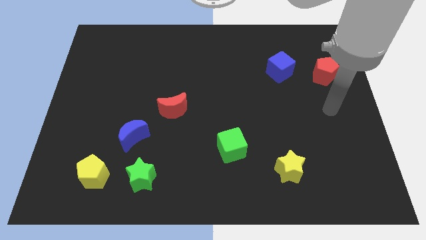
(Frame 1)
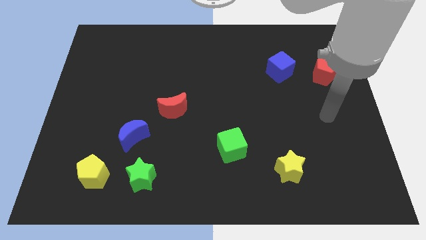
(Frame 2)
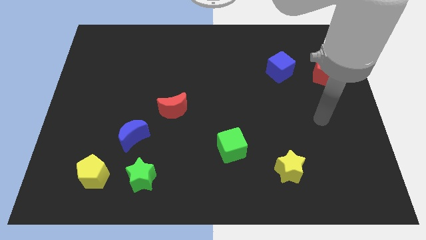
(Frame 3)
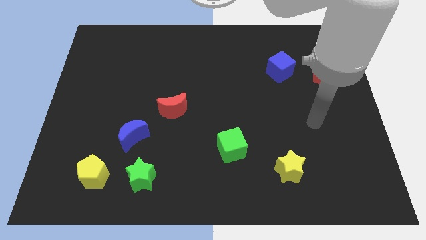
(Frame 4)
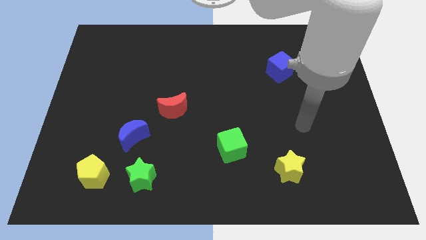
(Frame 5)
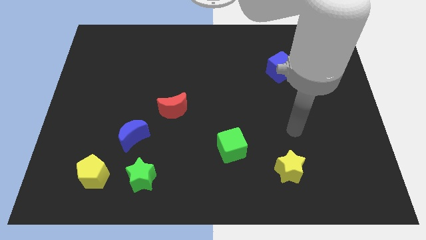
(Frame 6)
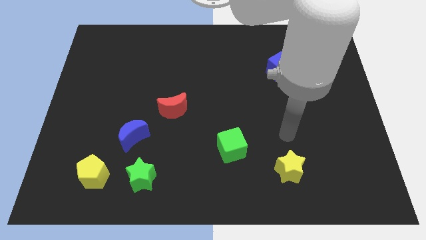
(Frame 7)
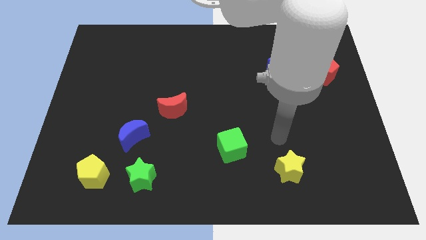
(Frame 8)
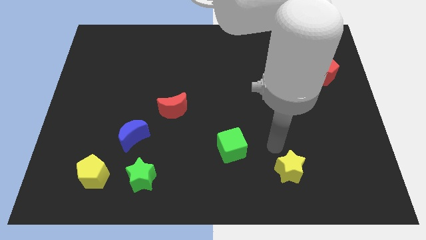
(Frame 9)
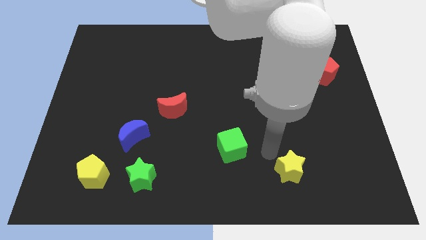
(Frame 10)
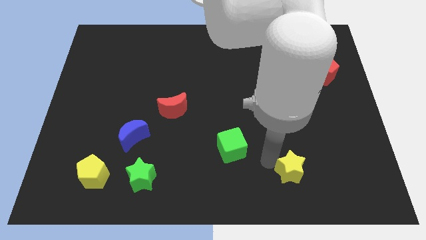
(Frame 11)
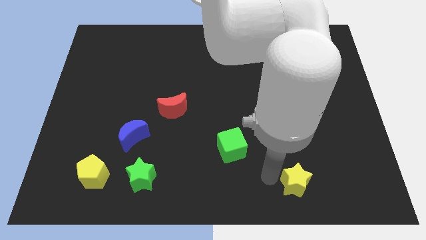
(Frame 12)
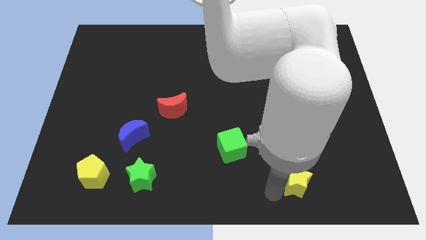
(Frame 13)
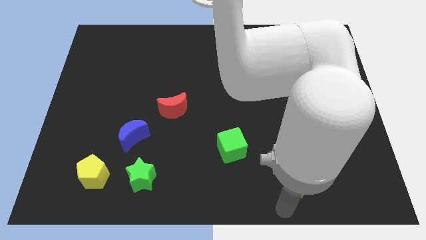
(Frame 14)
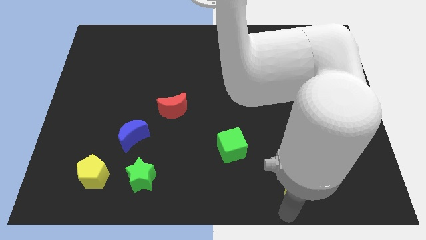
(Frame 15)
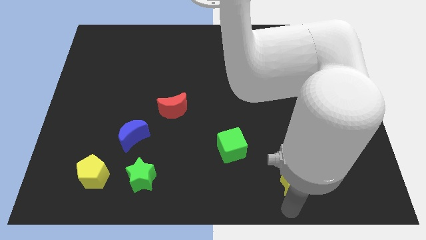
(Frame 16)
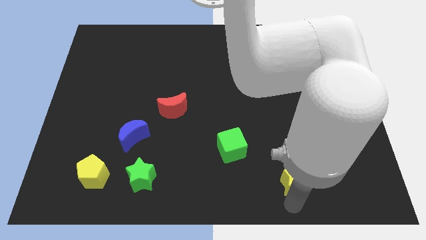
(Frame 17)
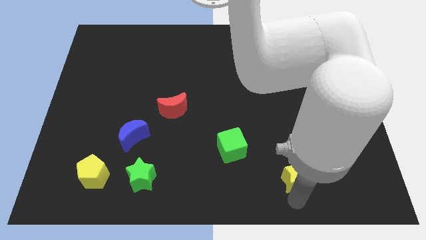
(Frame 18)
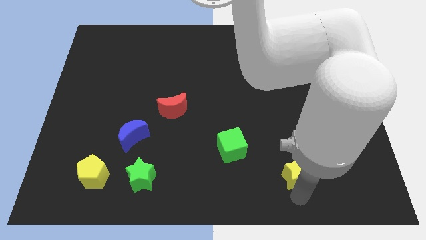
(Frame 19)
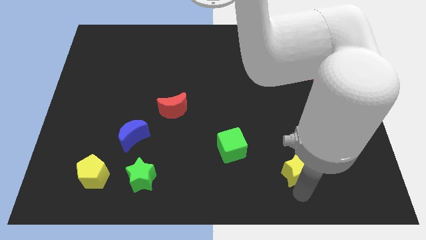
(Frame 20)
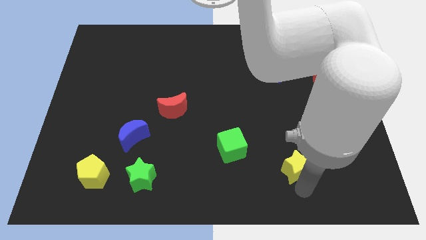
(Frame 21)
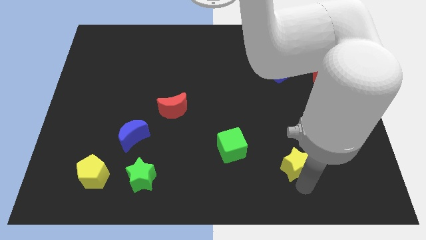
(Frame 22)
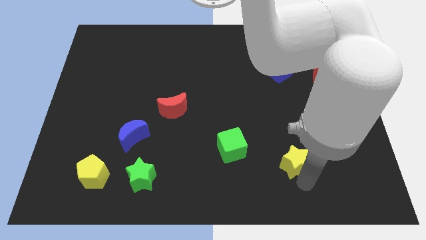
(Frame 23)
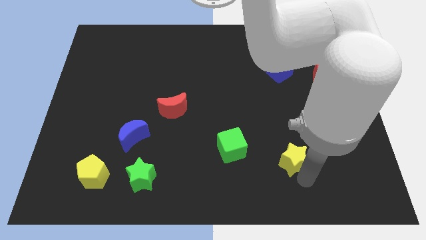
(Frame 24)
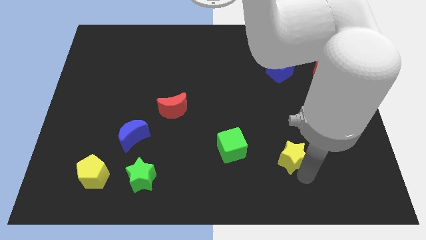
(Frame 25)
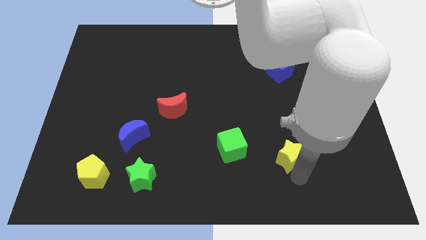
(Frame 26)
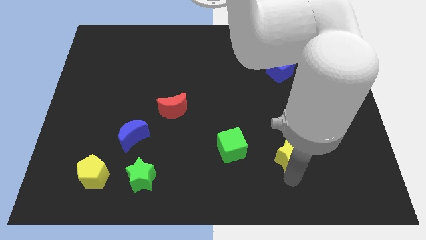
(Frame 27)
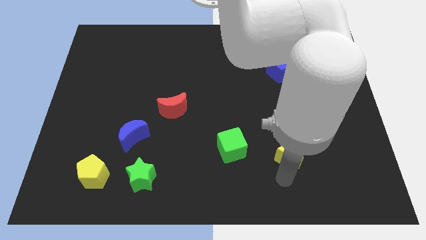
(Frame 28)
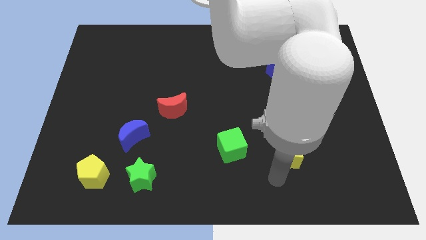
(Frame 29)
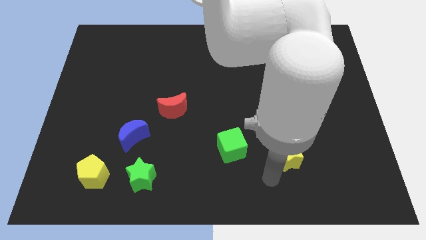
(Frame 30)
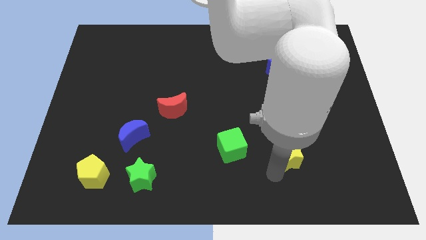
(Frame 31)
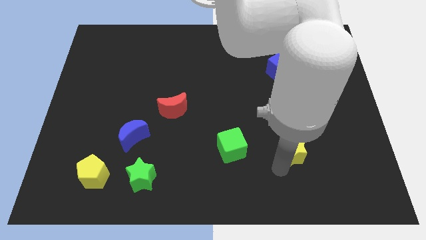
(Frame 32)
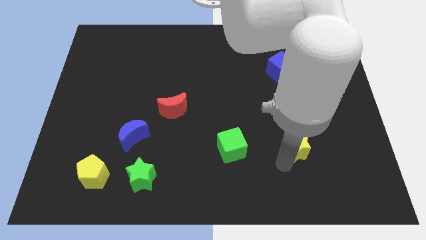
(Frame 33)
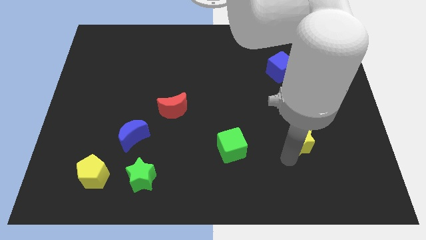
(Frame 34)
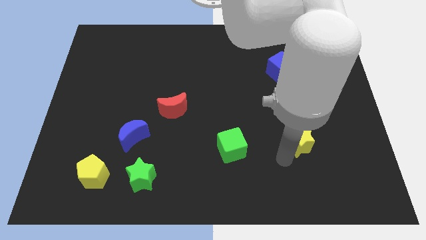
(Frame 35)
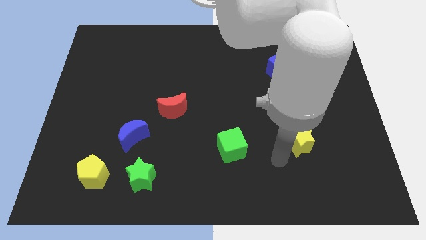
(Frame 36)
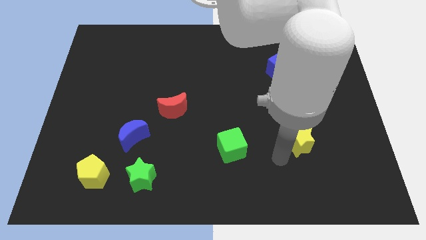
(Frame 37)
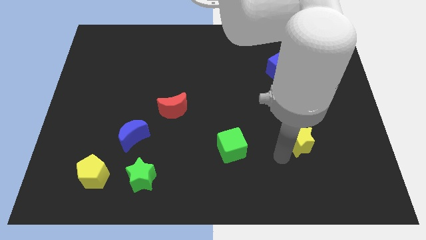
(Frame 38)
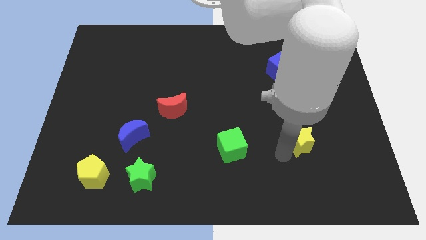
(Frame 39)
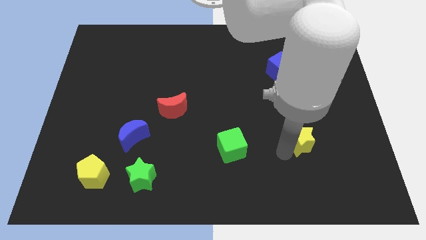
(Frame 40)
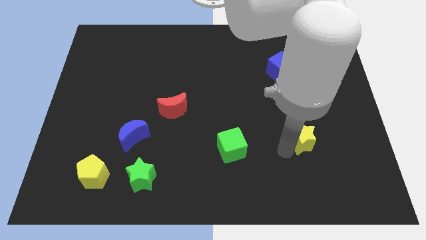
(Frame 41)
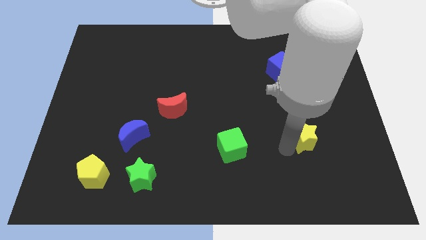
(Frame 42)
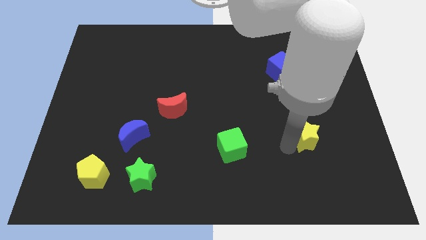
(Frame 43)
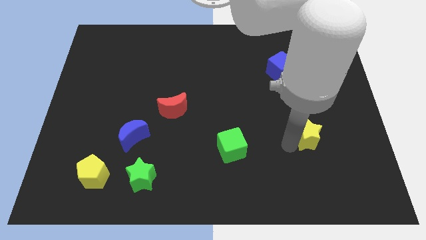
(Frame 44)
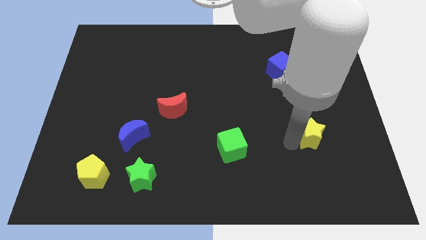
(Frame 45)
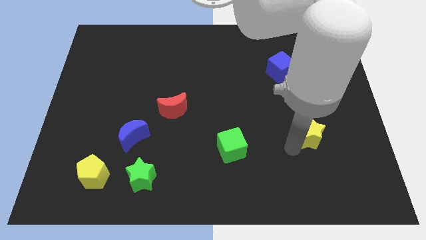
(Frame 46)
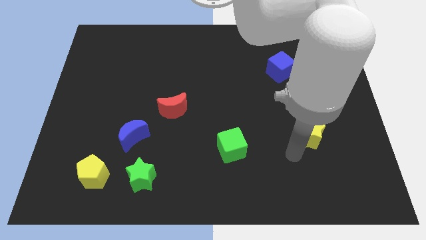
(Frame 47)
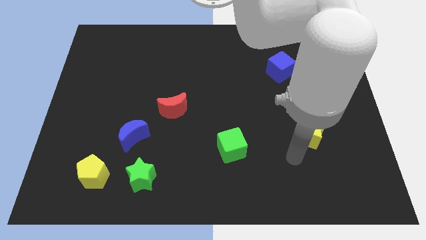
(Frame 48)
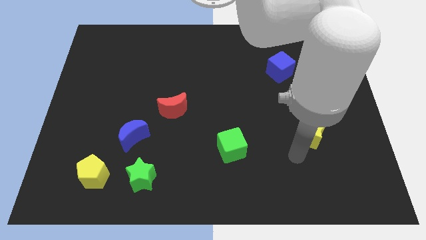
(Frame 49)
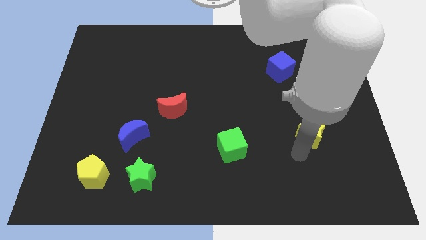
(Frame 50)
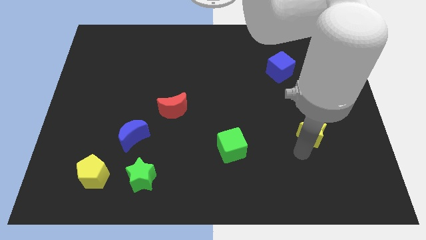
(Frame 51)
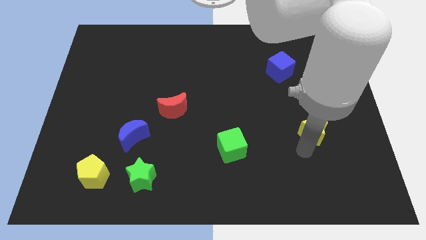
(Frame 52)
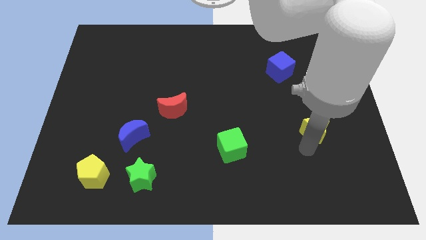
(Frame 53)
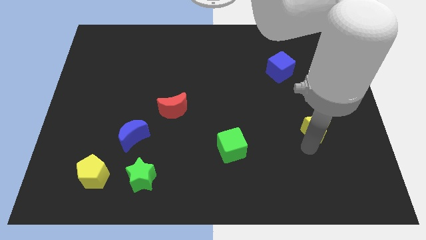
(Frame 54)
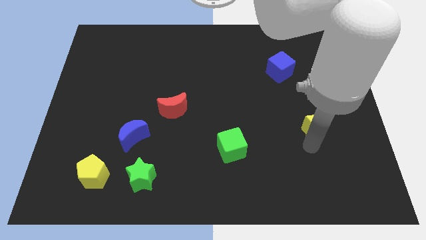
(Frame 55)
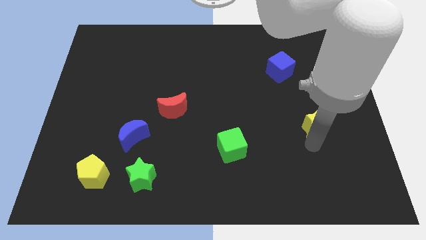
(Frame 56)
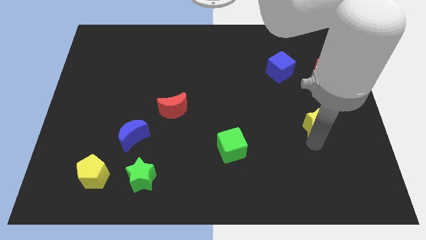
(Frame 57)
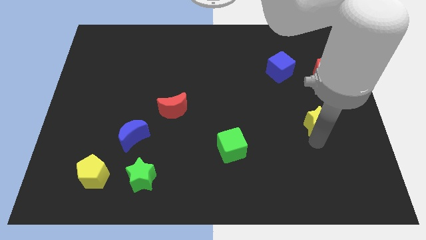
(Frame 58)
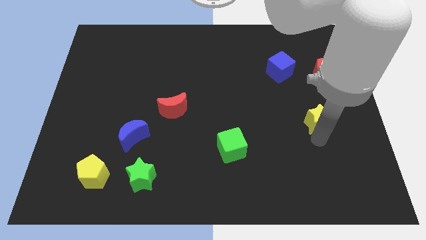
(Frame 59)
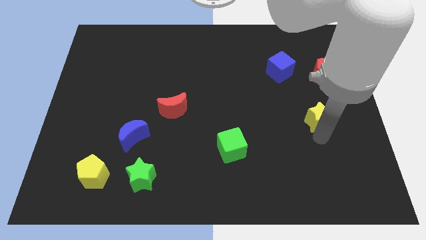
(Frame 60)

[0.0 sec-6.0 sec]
slide the yellow star to the bottom side of the red pentagon

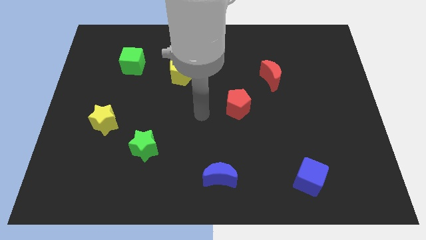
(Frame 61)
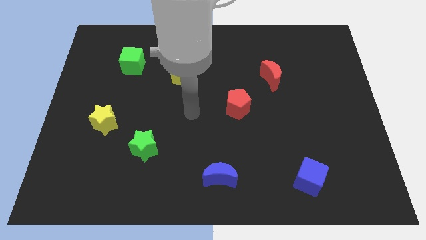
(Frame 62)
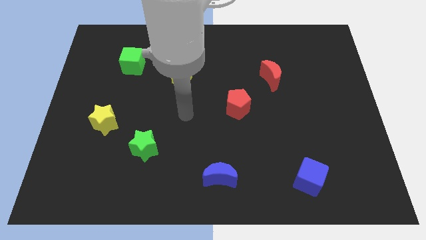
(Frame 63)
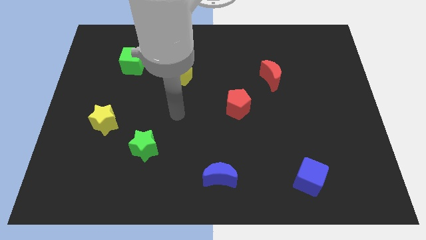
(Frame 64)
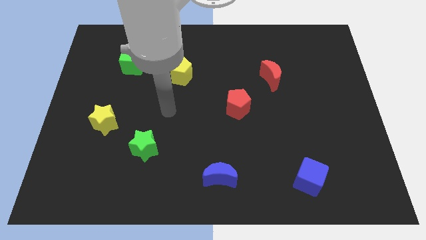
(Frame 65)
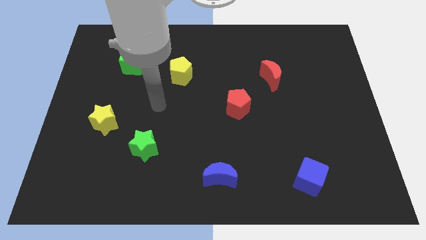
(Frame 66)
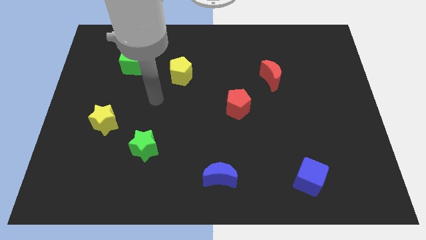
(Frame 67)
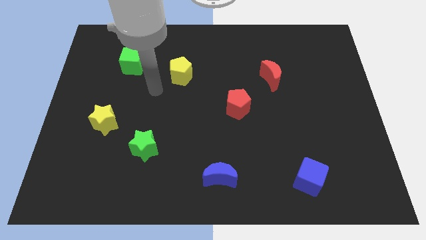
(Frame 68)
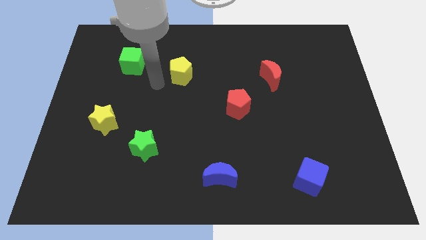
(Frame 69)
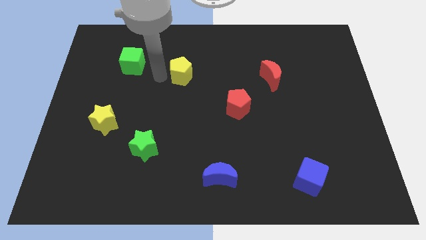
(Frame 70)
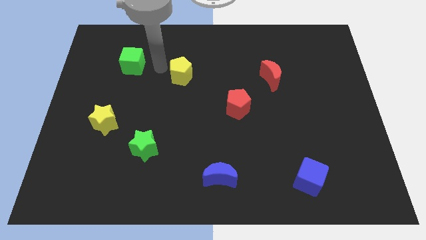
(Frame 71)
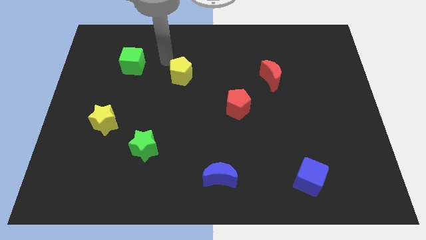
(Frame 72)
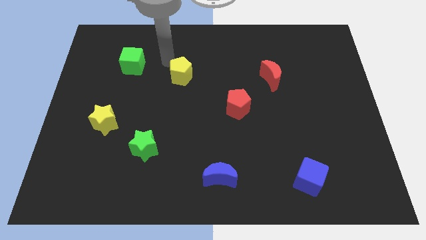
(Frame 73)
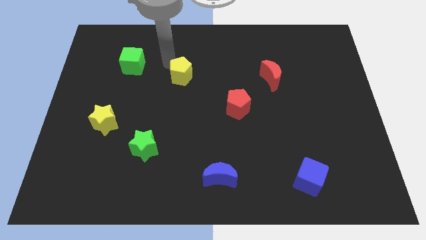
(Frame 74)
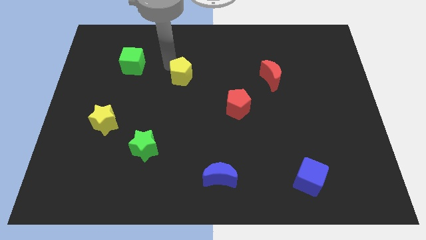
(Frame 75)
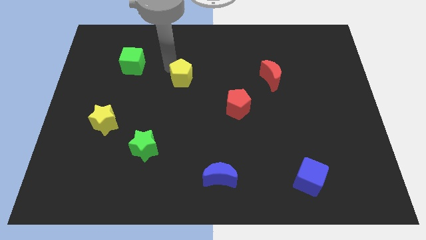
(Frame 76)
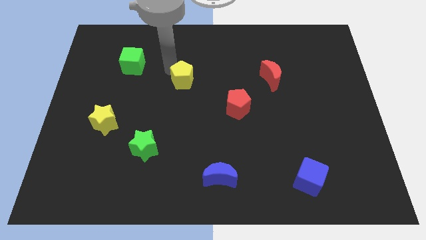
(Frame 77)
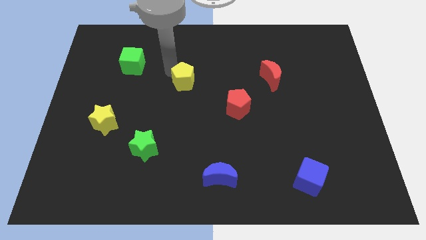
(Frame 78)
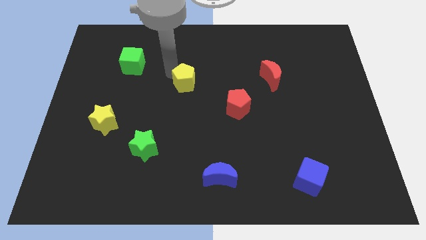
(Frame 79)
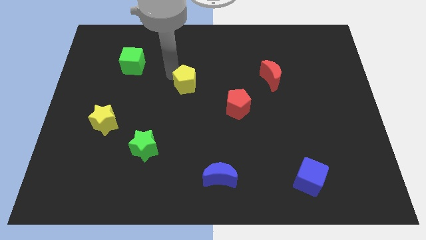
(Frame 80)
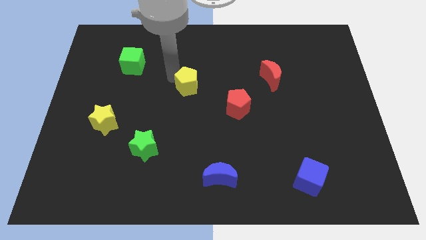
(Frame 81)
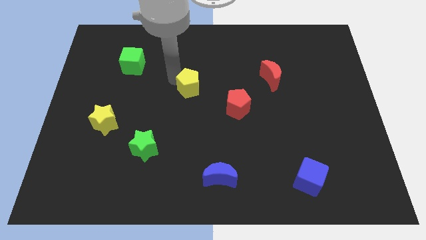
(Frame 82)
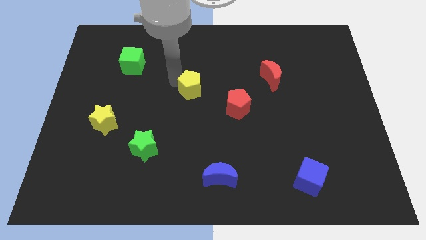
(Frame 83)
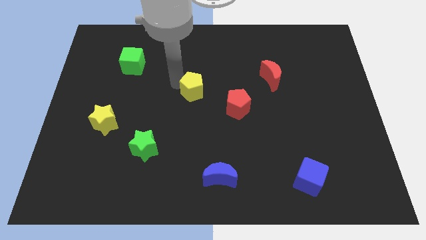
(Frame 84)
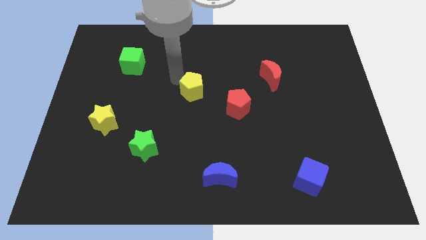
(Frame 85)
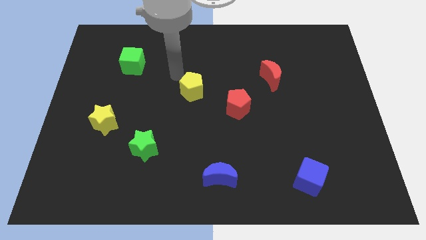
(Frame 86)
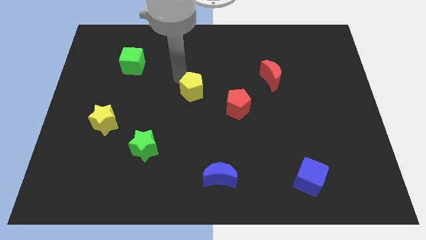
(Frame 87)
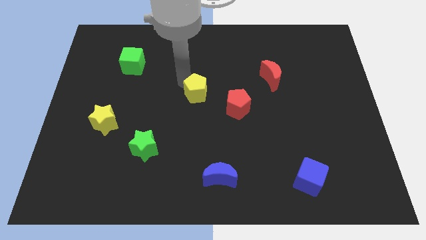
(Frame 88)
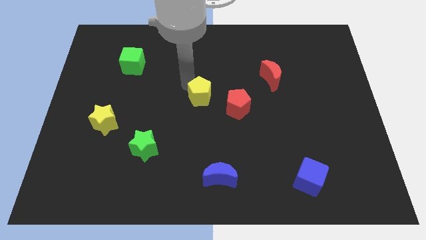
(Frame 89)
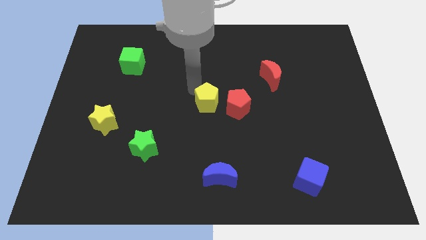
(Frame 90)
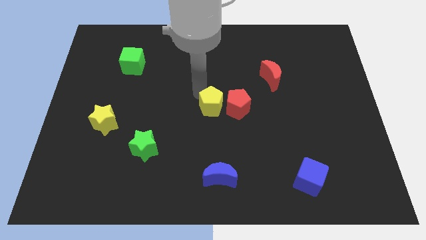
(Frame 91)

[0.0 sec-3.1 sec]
move the yellow pentagon to the bottom left side of the red pentagon
